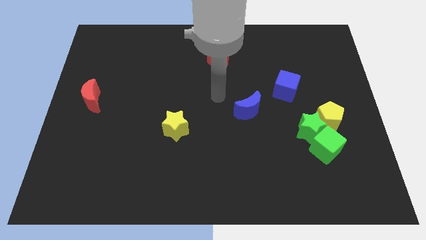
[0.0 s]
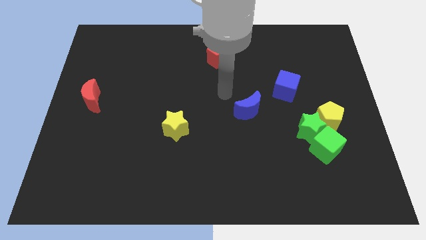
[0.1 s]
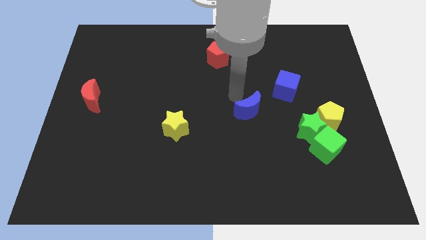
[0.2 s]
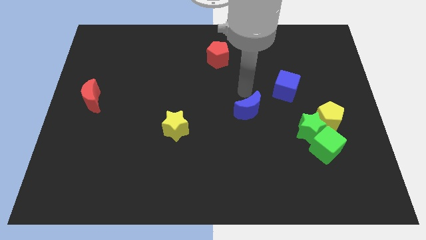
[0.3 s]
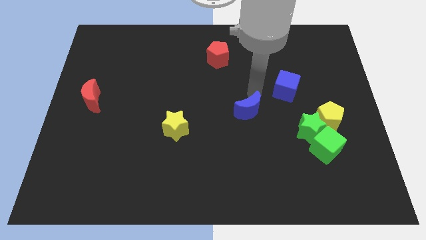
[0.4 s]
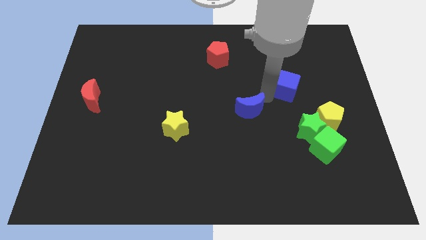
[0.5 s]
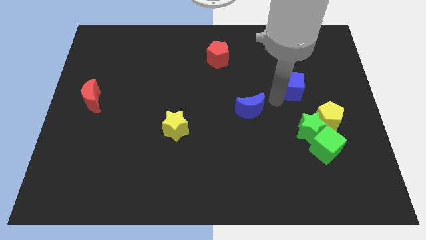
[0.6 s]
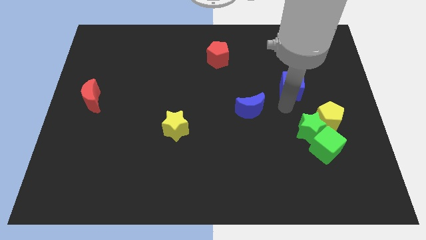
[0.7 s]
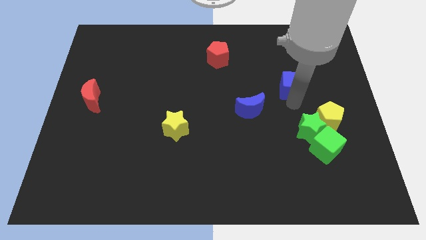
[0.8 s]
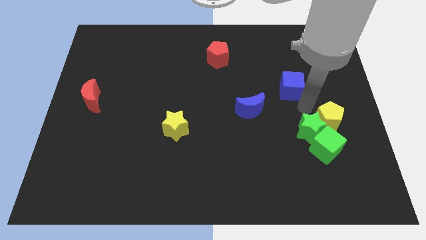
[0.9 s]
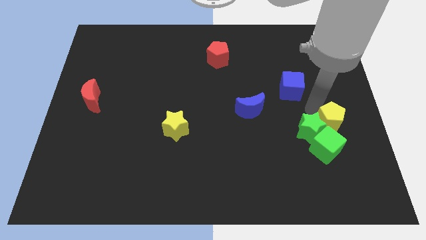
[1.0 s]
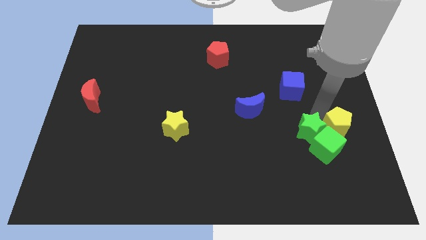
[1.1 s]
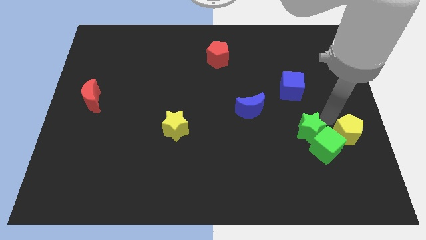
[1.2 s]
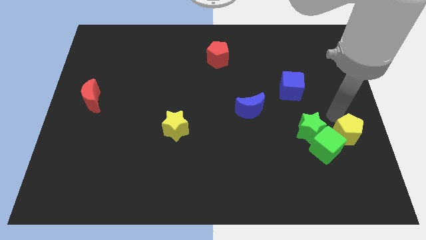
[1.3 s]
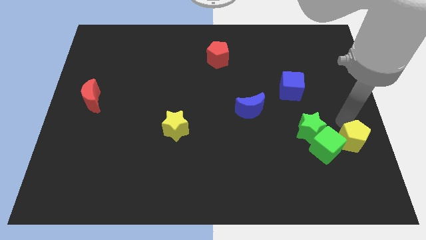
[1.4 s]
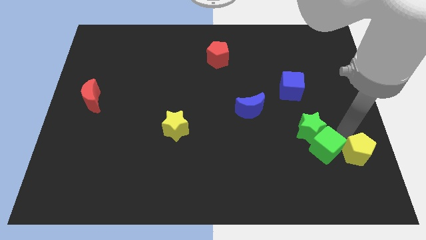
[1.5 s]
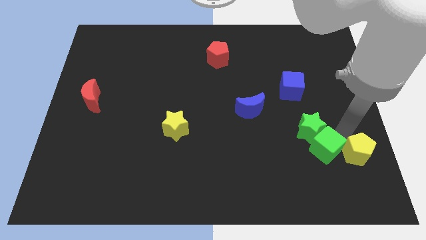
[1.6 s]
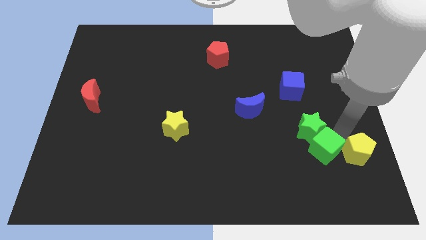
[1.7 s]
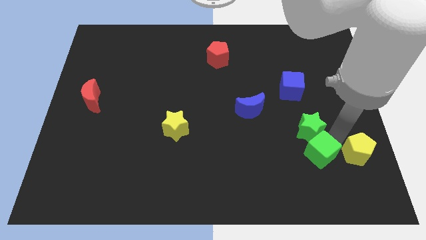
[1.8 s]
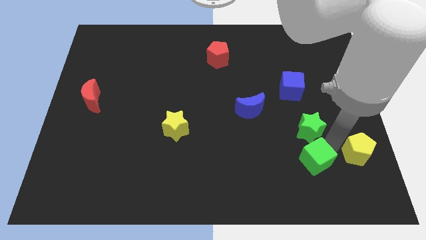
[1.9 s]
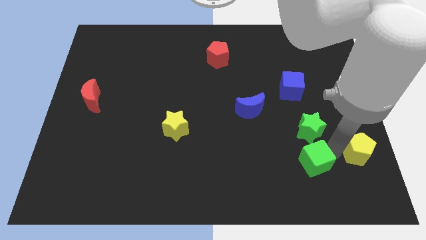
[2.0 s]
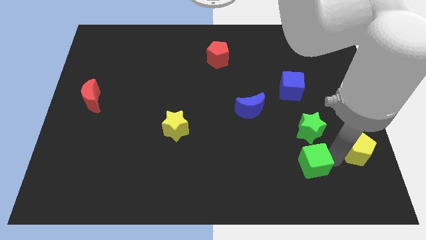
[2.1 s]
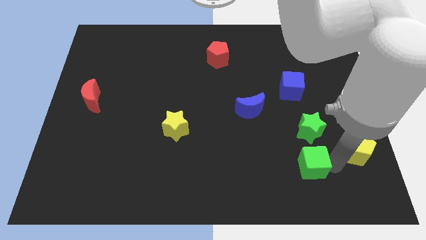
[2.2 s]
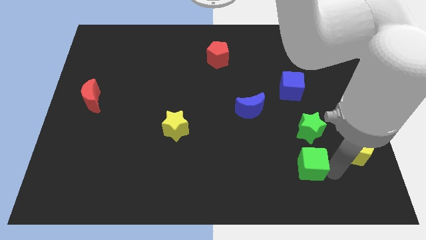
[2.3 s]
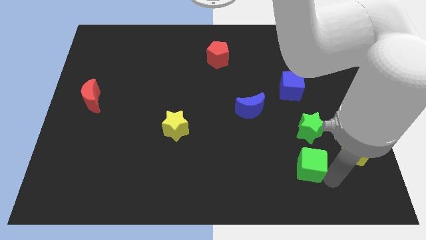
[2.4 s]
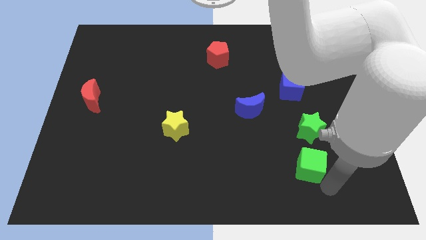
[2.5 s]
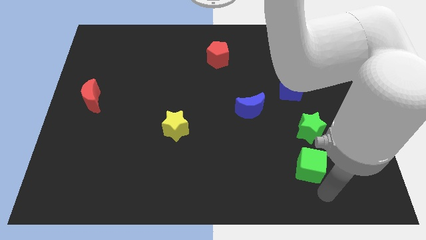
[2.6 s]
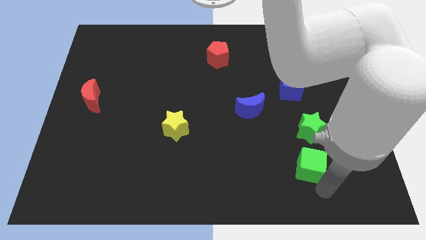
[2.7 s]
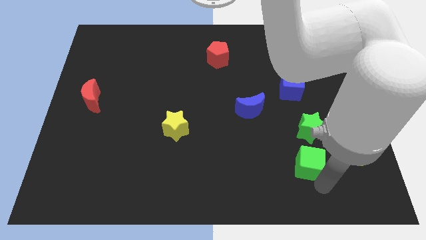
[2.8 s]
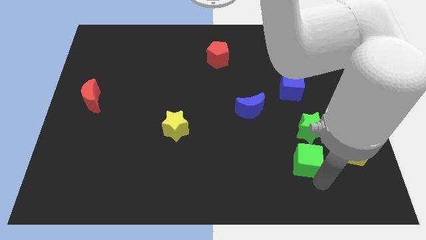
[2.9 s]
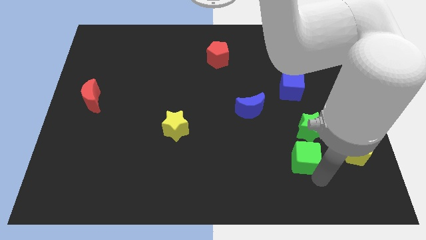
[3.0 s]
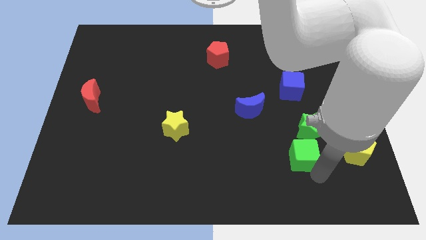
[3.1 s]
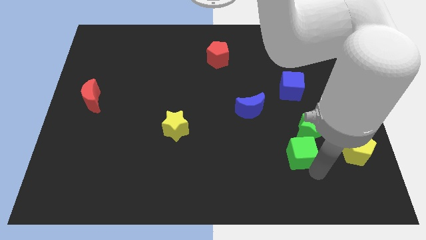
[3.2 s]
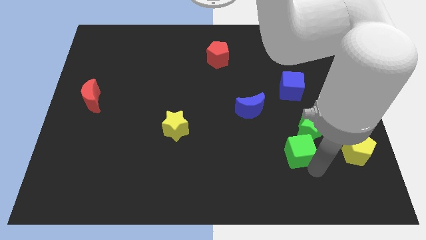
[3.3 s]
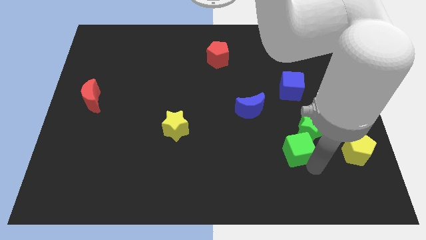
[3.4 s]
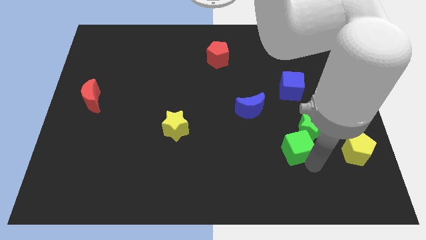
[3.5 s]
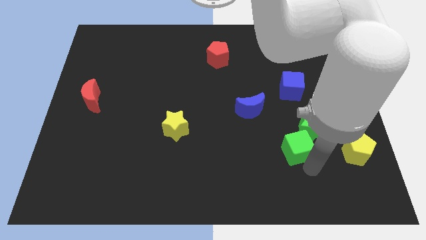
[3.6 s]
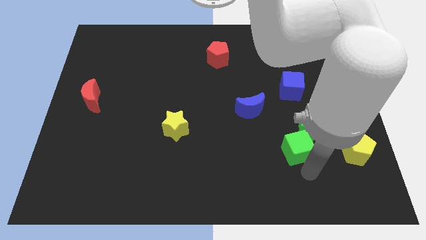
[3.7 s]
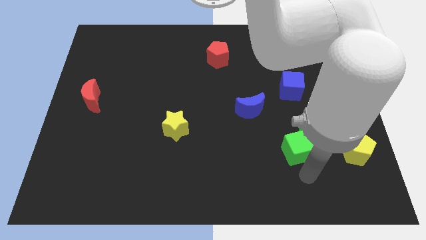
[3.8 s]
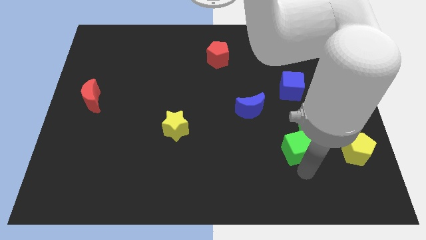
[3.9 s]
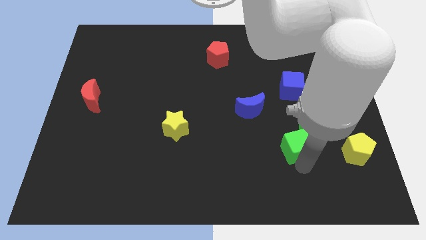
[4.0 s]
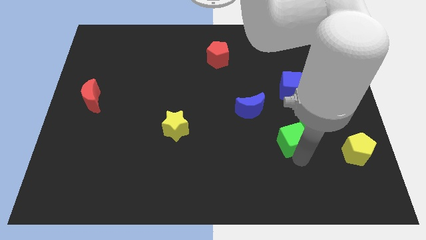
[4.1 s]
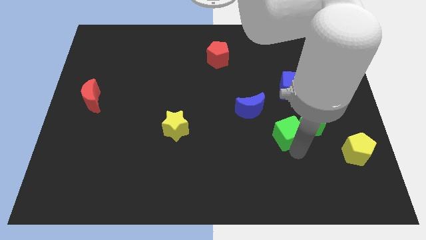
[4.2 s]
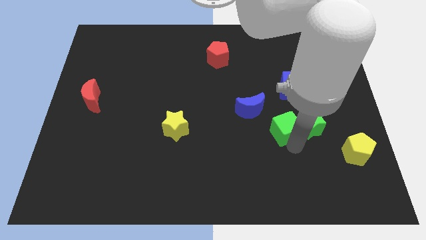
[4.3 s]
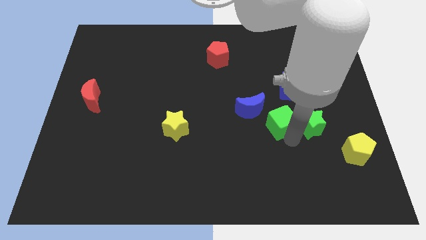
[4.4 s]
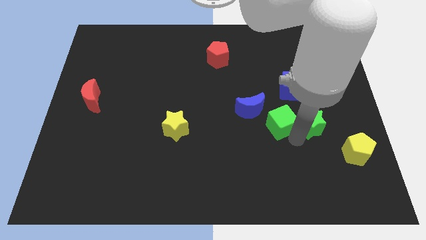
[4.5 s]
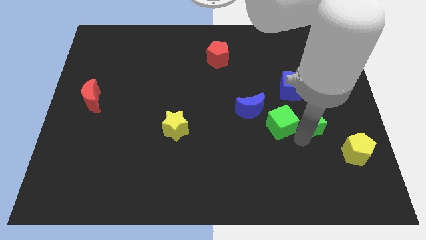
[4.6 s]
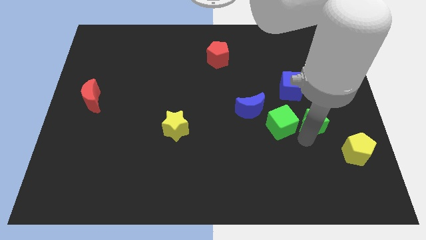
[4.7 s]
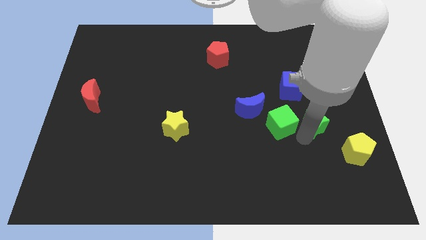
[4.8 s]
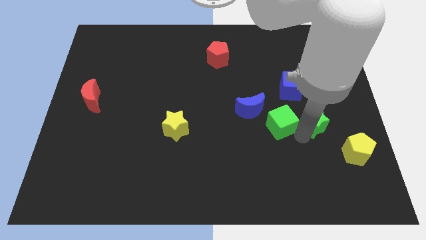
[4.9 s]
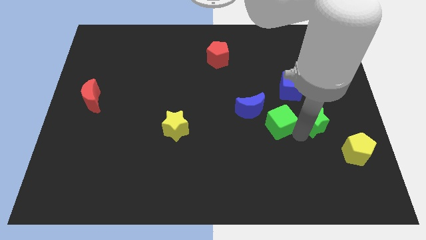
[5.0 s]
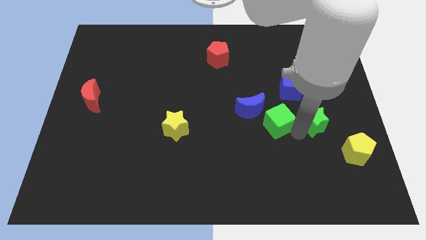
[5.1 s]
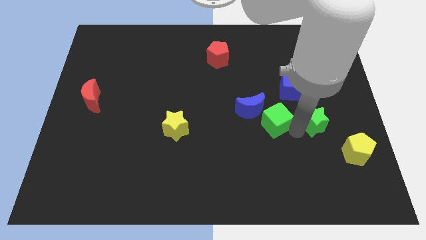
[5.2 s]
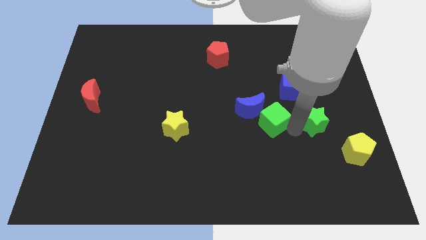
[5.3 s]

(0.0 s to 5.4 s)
push the green cube towards the blue moon

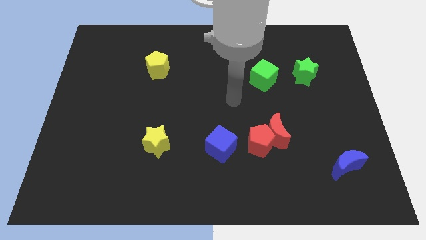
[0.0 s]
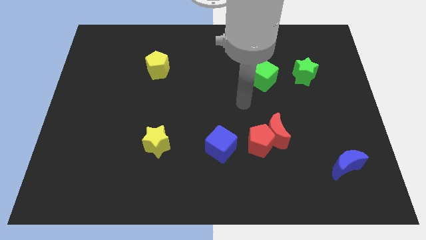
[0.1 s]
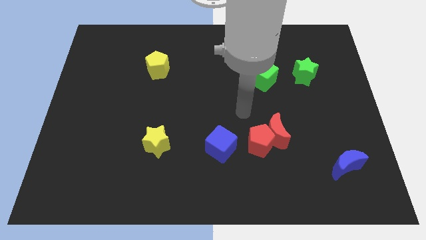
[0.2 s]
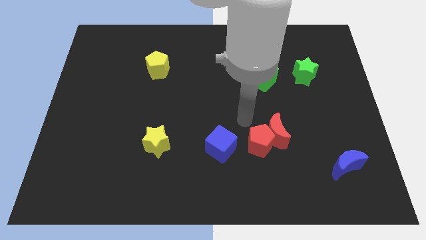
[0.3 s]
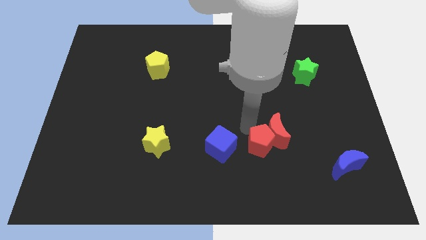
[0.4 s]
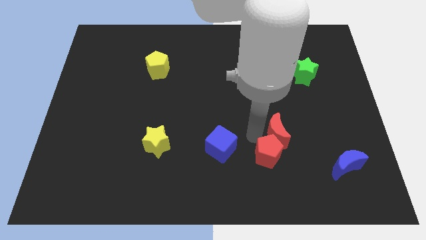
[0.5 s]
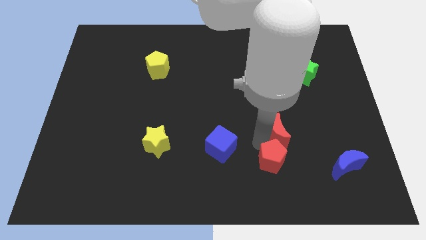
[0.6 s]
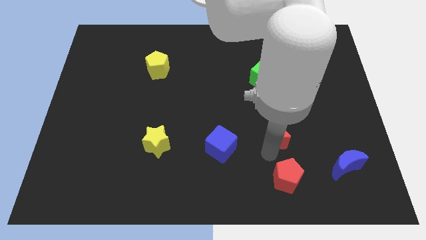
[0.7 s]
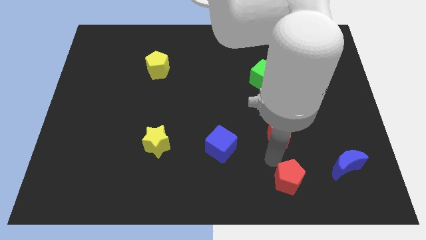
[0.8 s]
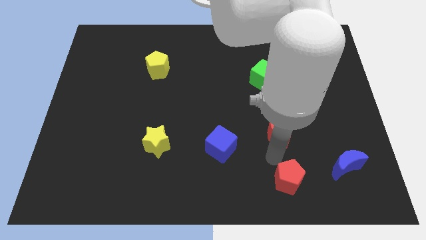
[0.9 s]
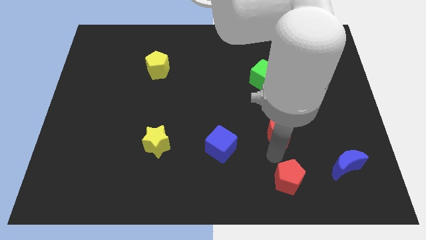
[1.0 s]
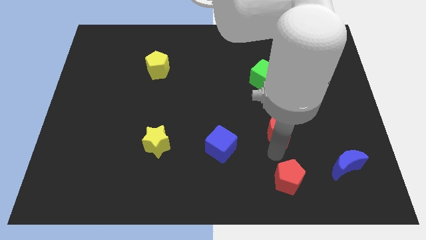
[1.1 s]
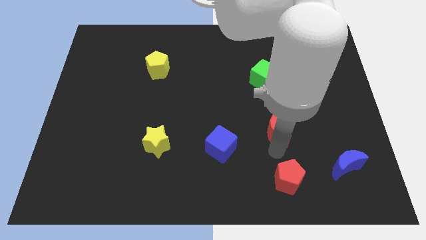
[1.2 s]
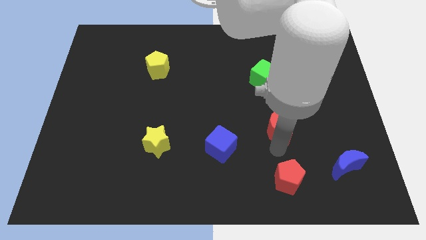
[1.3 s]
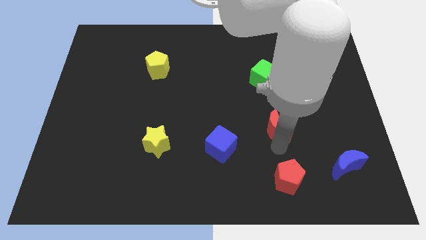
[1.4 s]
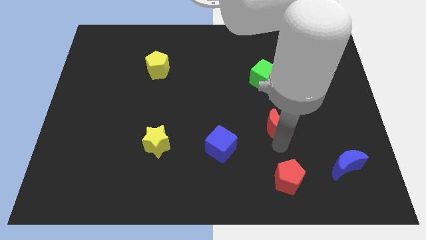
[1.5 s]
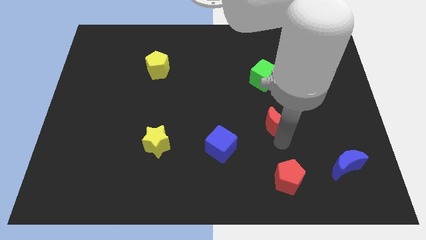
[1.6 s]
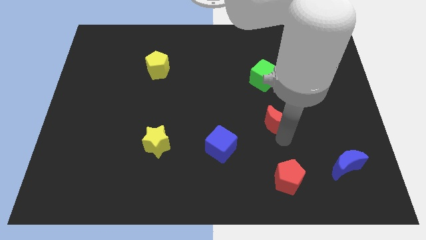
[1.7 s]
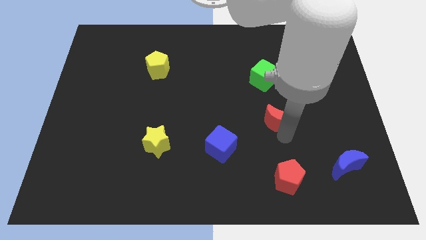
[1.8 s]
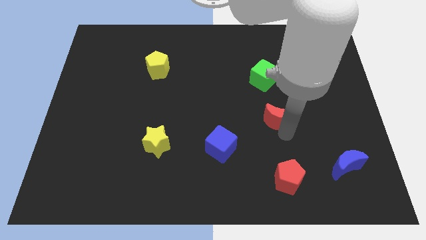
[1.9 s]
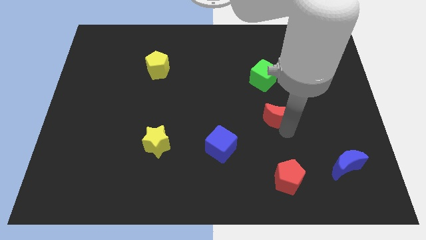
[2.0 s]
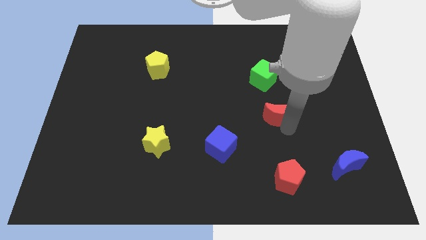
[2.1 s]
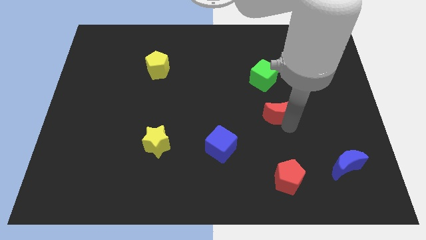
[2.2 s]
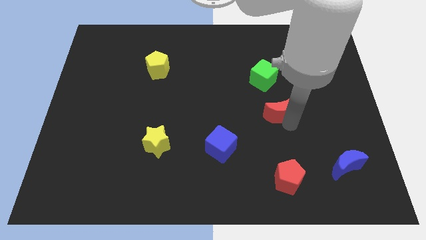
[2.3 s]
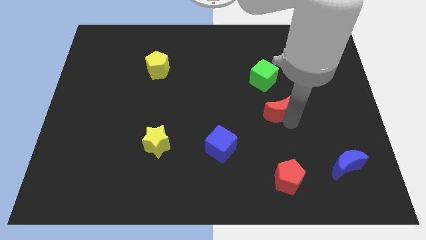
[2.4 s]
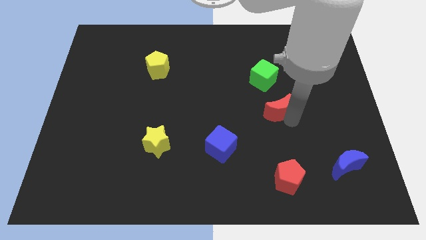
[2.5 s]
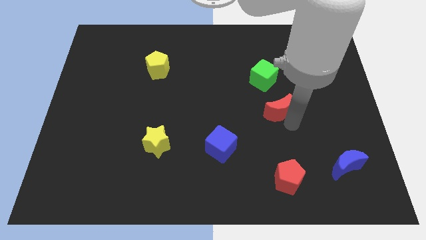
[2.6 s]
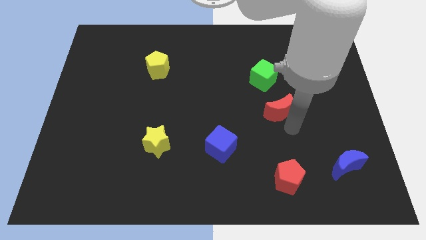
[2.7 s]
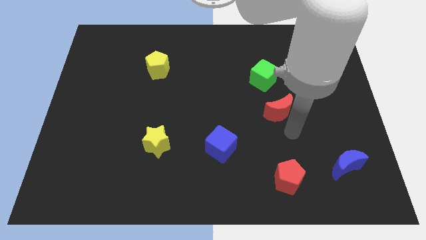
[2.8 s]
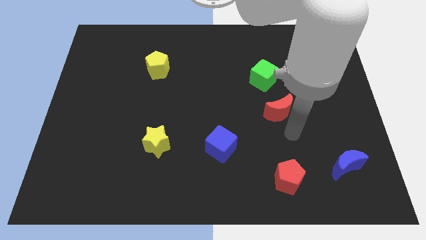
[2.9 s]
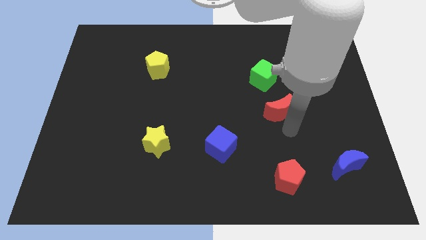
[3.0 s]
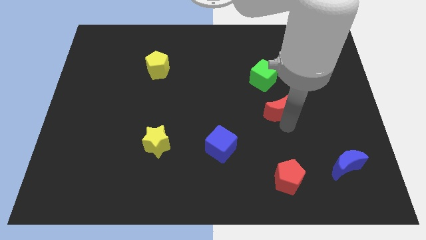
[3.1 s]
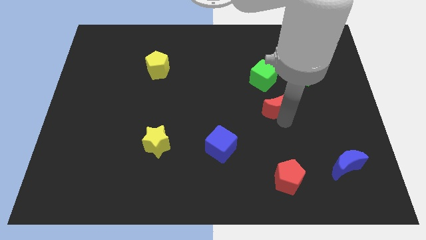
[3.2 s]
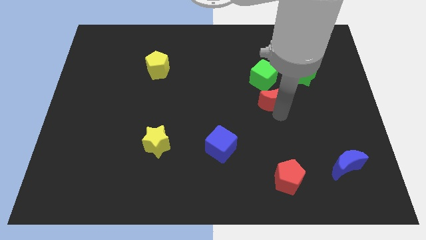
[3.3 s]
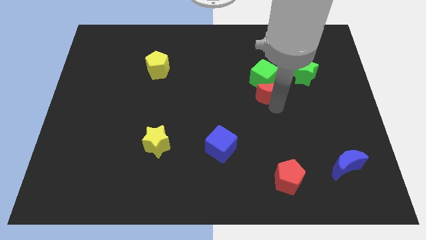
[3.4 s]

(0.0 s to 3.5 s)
put the red moon next to the green cube
